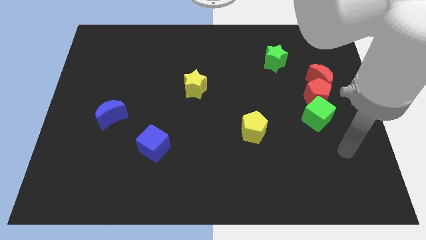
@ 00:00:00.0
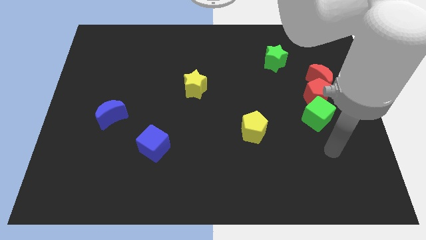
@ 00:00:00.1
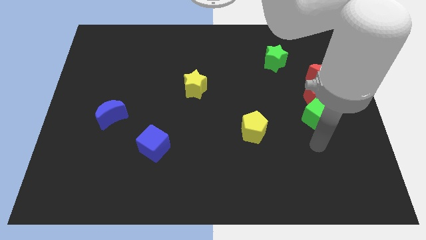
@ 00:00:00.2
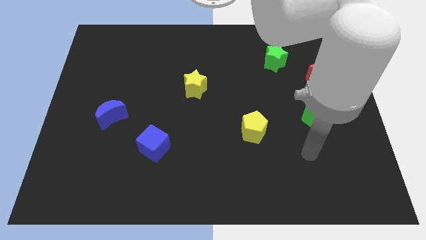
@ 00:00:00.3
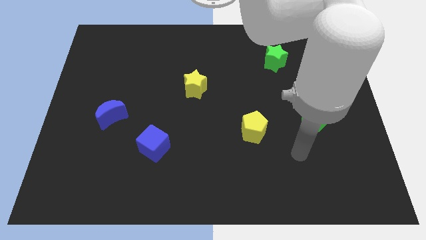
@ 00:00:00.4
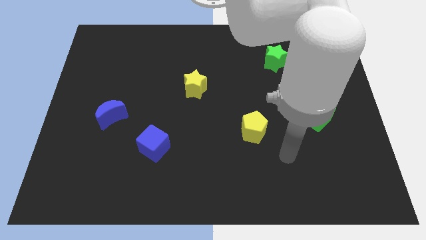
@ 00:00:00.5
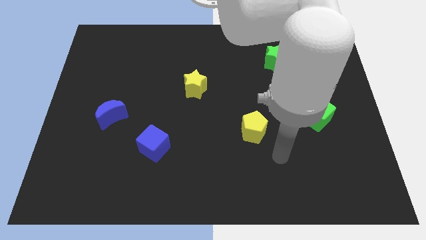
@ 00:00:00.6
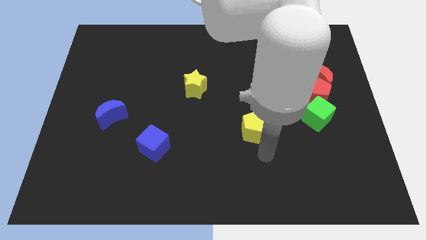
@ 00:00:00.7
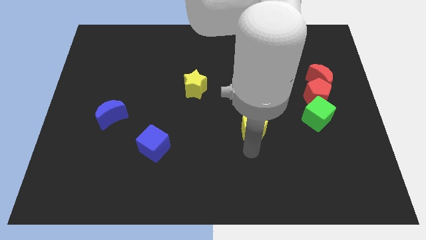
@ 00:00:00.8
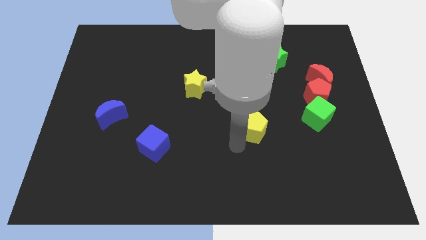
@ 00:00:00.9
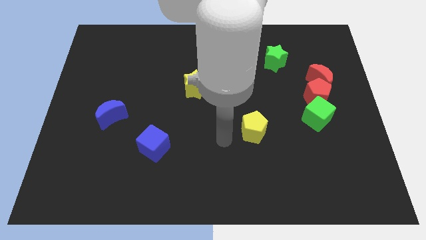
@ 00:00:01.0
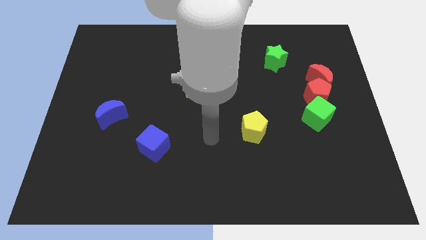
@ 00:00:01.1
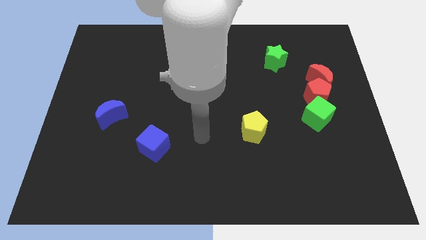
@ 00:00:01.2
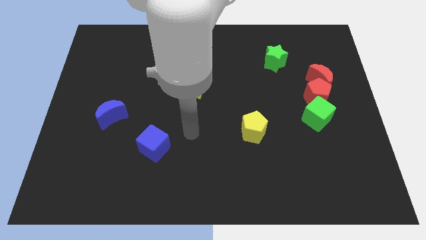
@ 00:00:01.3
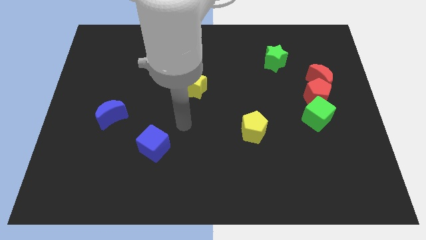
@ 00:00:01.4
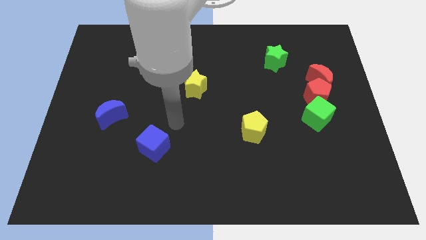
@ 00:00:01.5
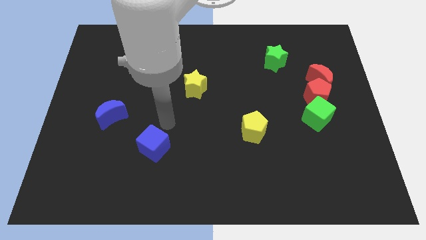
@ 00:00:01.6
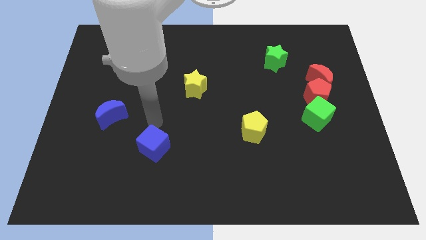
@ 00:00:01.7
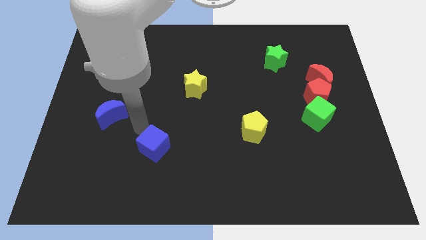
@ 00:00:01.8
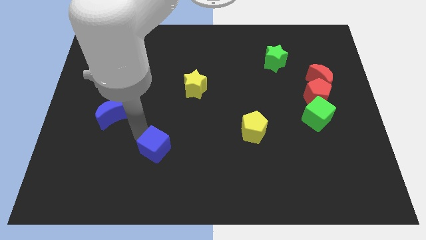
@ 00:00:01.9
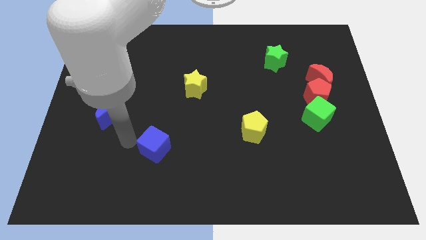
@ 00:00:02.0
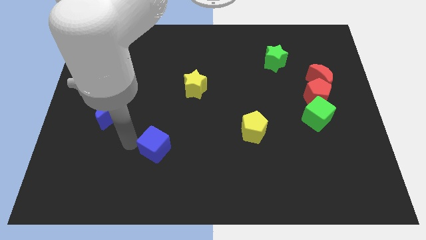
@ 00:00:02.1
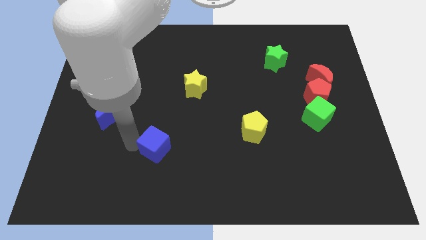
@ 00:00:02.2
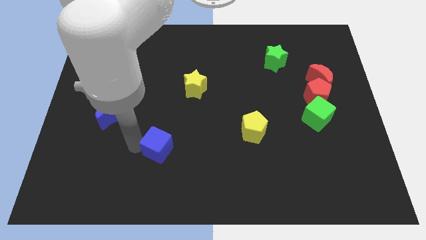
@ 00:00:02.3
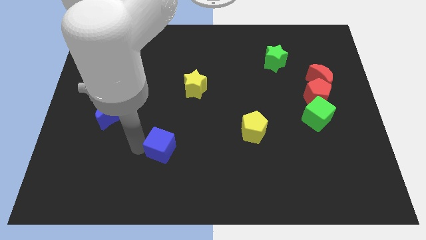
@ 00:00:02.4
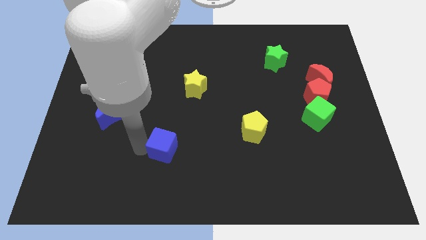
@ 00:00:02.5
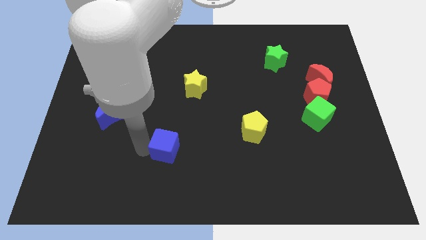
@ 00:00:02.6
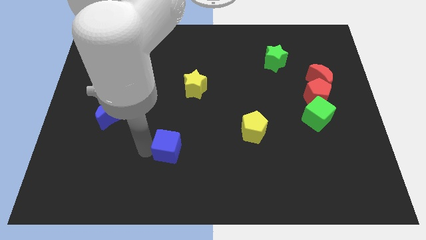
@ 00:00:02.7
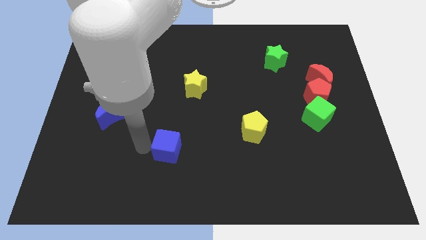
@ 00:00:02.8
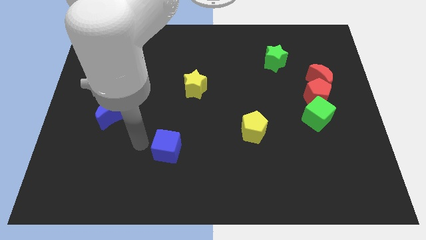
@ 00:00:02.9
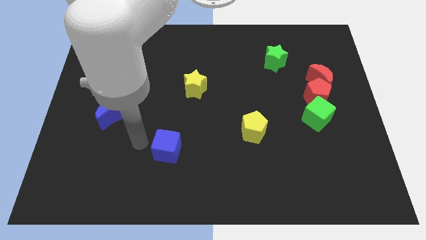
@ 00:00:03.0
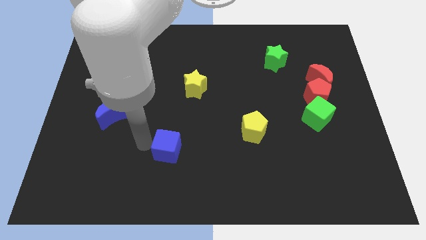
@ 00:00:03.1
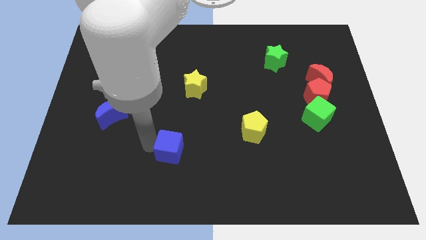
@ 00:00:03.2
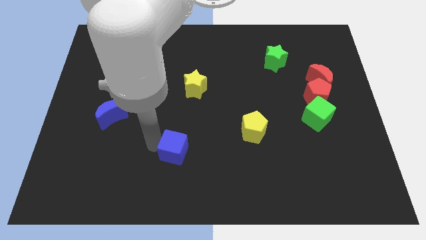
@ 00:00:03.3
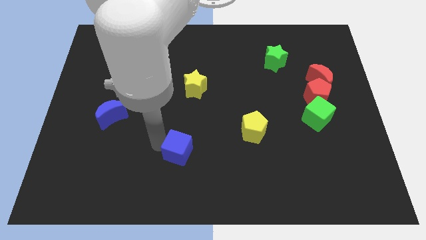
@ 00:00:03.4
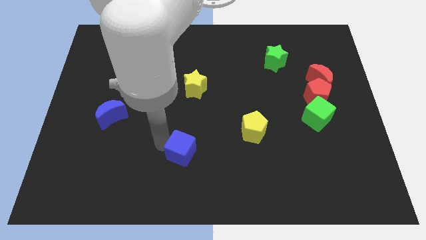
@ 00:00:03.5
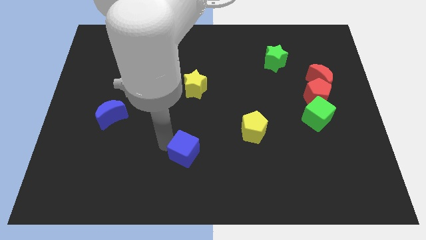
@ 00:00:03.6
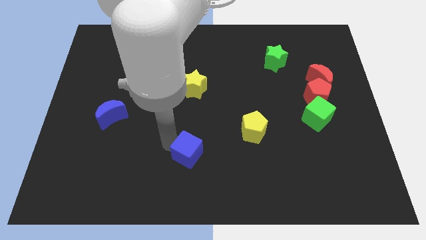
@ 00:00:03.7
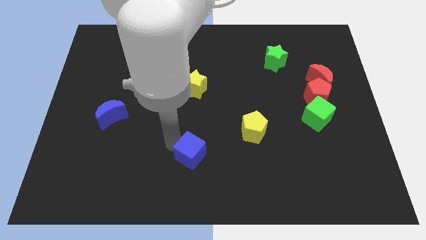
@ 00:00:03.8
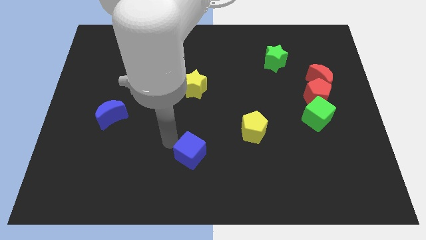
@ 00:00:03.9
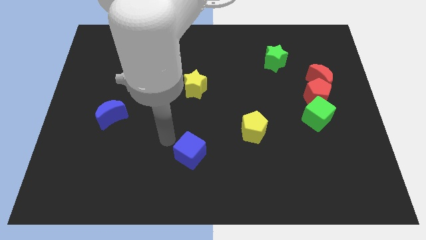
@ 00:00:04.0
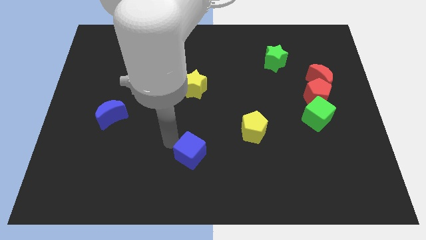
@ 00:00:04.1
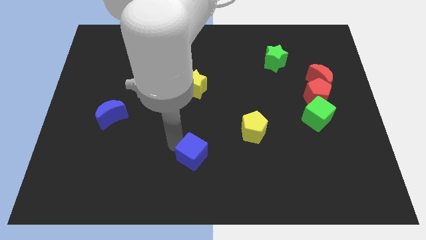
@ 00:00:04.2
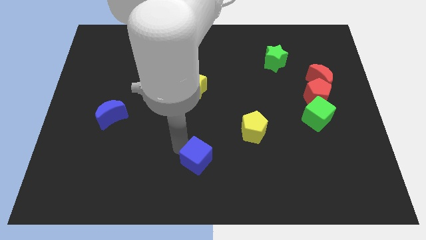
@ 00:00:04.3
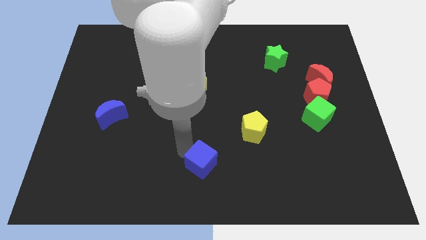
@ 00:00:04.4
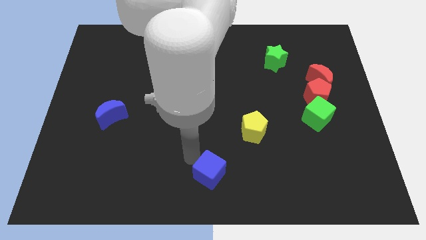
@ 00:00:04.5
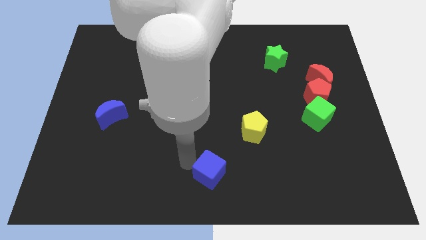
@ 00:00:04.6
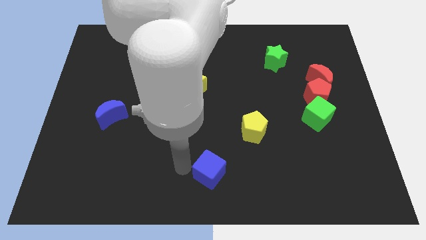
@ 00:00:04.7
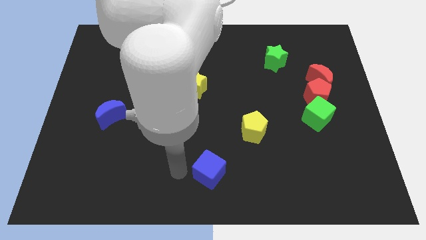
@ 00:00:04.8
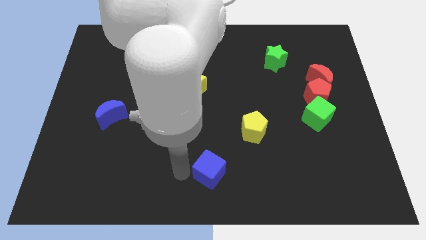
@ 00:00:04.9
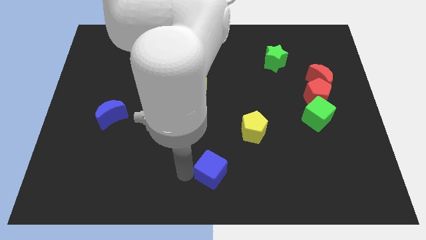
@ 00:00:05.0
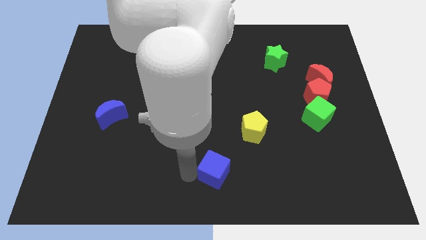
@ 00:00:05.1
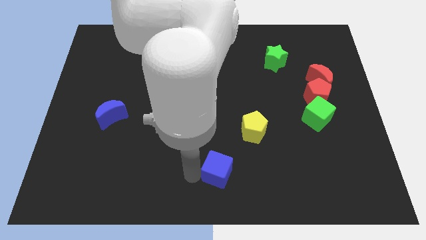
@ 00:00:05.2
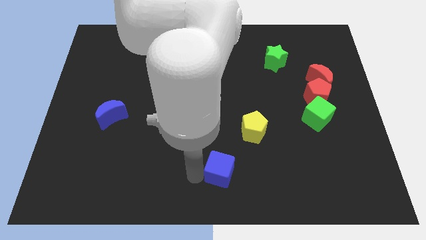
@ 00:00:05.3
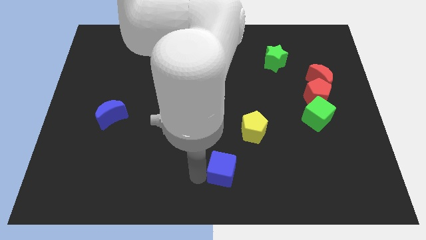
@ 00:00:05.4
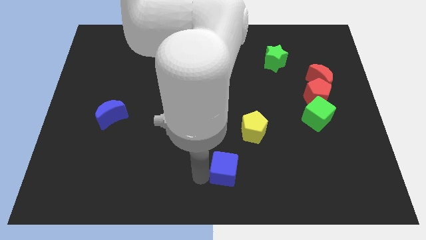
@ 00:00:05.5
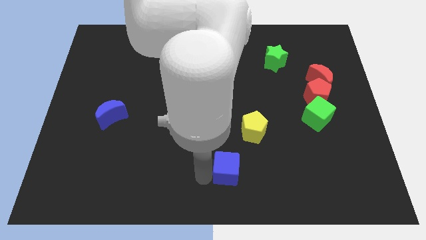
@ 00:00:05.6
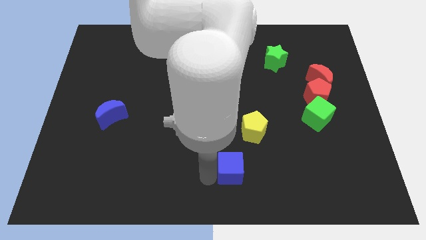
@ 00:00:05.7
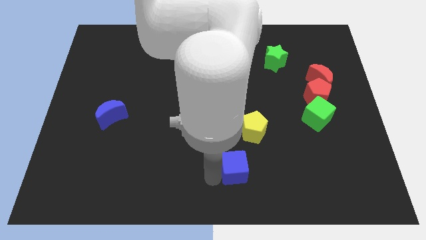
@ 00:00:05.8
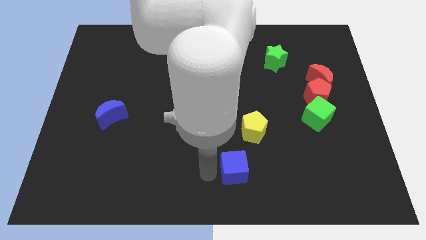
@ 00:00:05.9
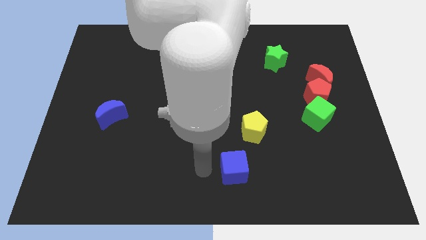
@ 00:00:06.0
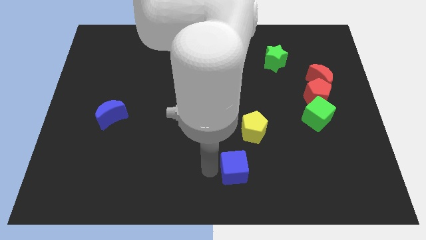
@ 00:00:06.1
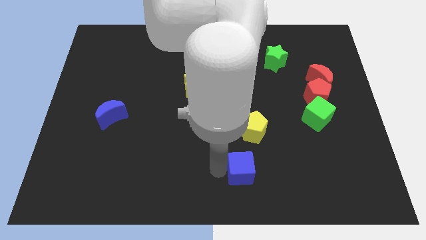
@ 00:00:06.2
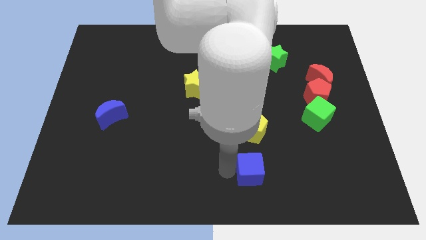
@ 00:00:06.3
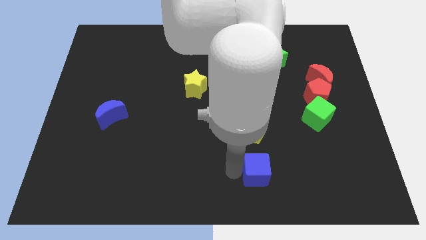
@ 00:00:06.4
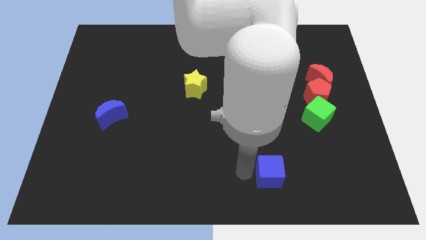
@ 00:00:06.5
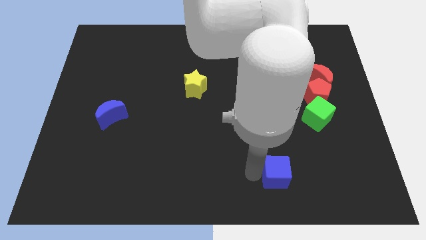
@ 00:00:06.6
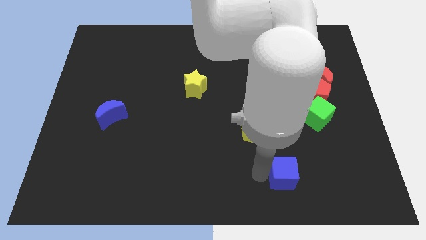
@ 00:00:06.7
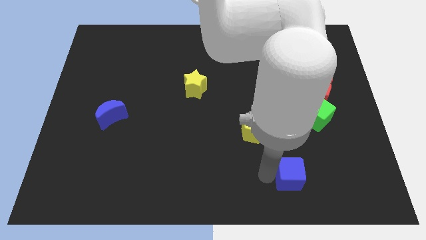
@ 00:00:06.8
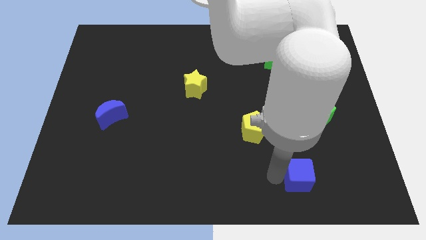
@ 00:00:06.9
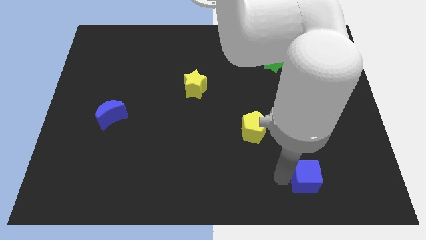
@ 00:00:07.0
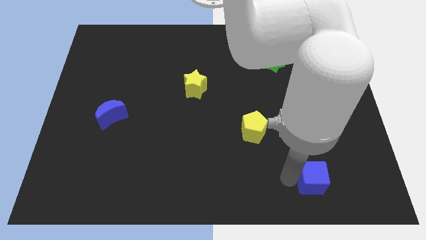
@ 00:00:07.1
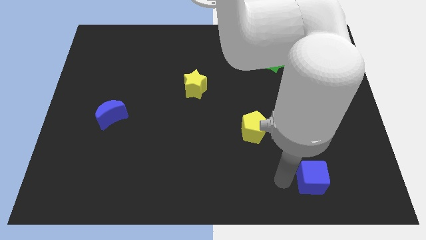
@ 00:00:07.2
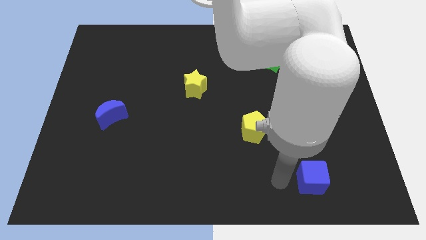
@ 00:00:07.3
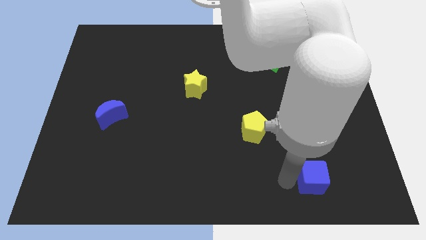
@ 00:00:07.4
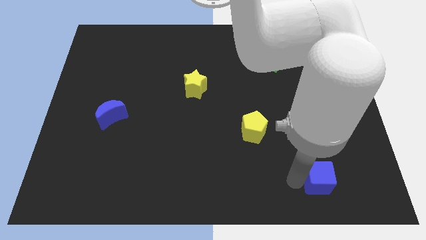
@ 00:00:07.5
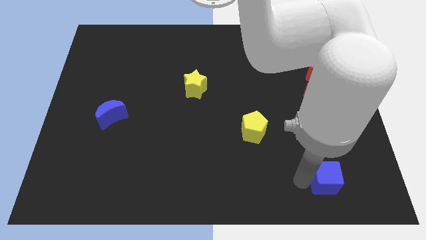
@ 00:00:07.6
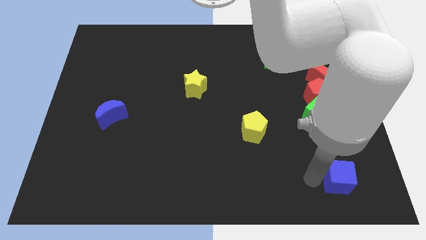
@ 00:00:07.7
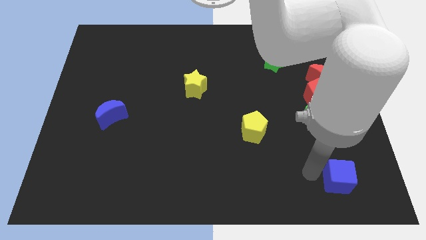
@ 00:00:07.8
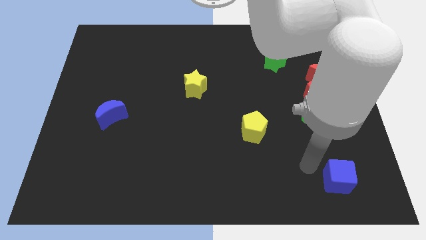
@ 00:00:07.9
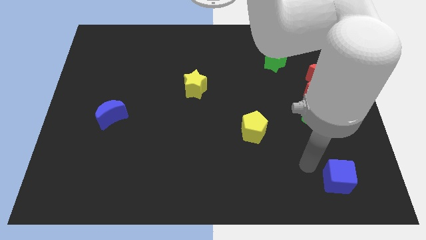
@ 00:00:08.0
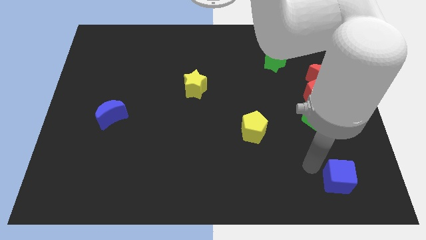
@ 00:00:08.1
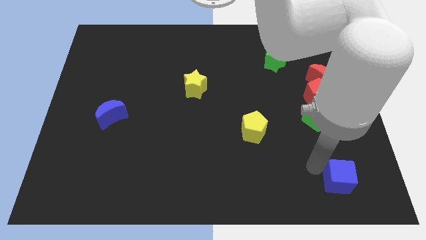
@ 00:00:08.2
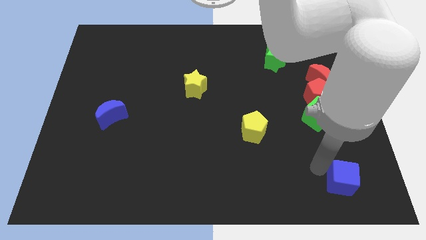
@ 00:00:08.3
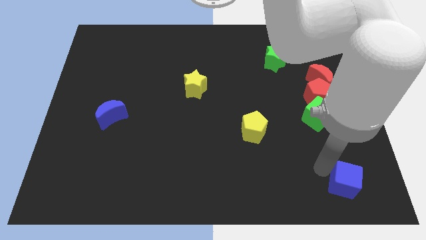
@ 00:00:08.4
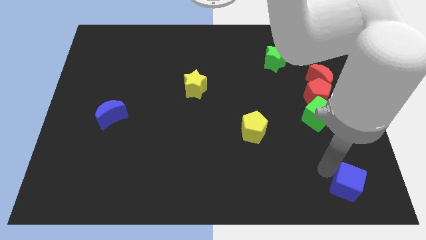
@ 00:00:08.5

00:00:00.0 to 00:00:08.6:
put the blue cube to the bottom right
